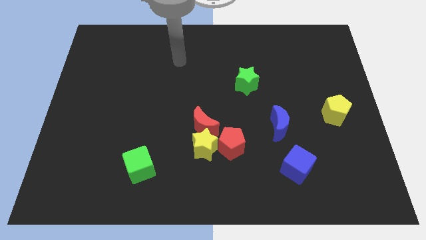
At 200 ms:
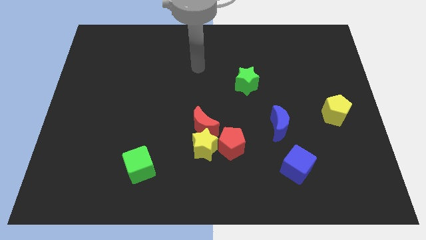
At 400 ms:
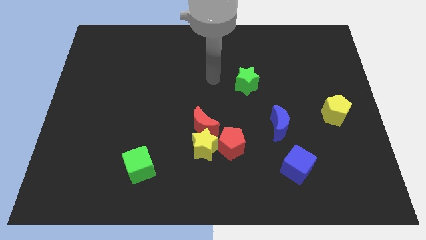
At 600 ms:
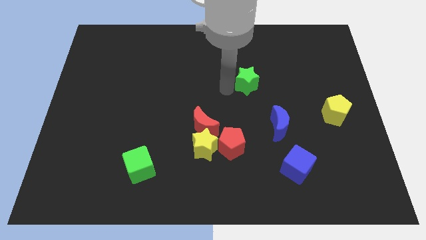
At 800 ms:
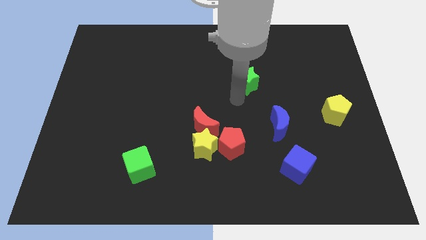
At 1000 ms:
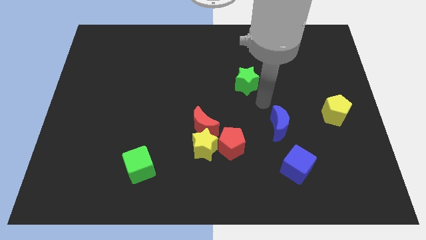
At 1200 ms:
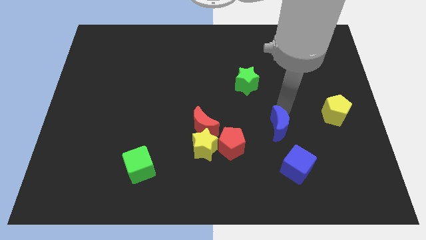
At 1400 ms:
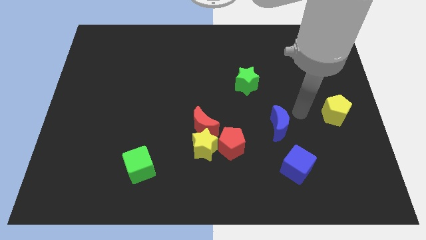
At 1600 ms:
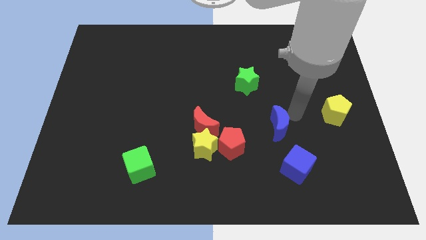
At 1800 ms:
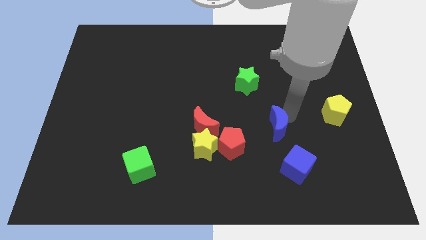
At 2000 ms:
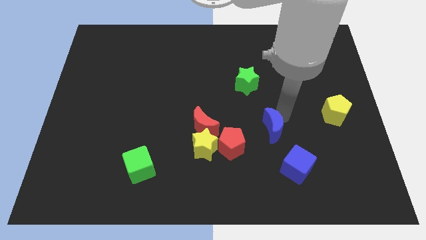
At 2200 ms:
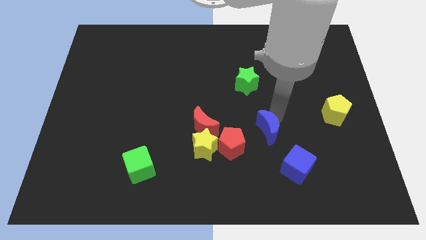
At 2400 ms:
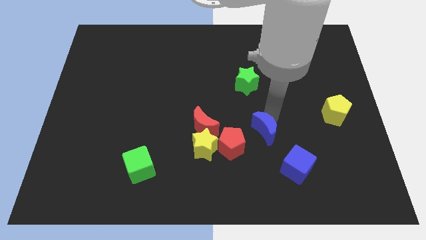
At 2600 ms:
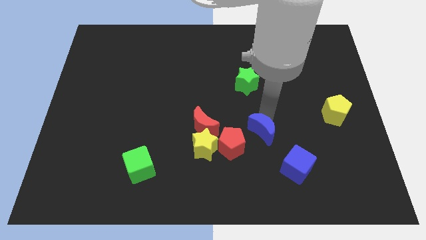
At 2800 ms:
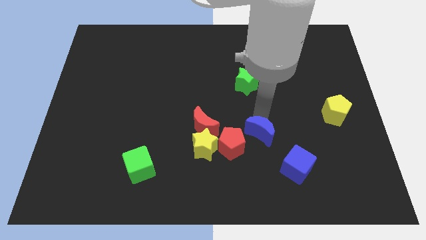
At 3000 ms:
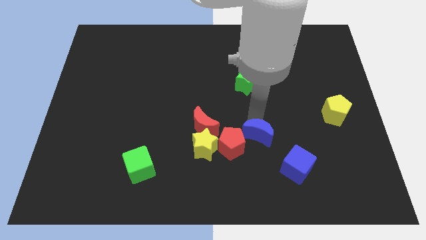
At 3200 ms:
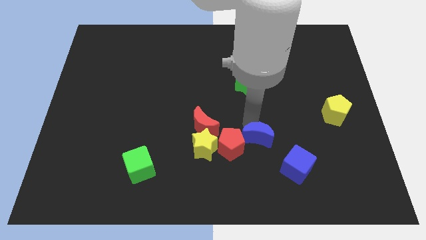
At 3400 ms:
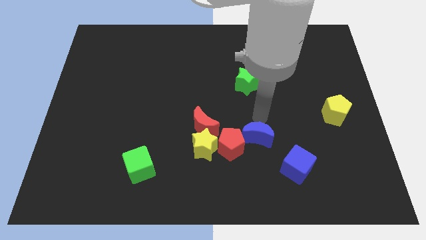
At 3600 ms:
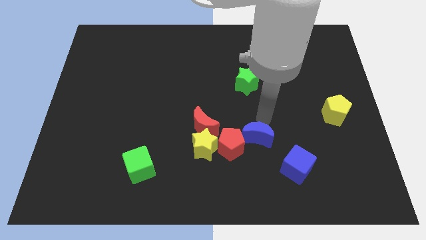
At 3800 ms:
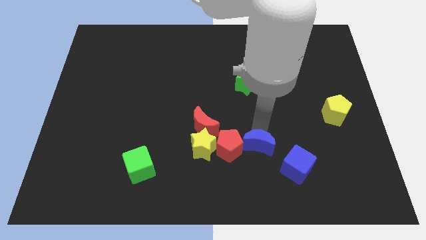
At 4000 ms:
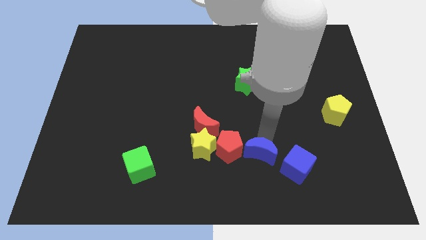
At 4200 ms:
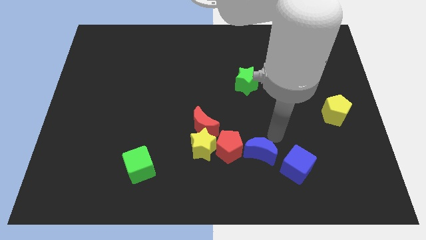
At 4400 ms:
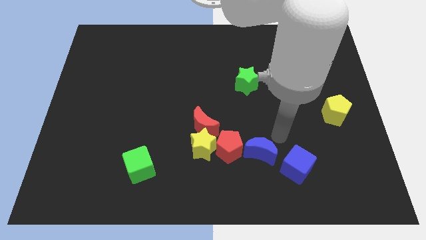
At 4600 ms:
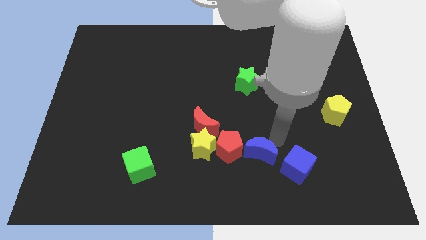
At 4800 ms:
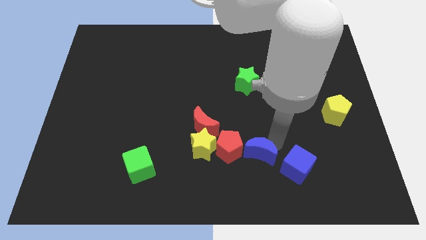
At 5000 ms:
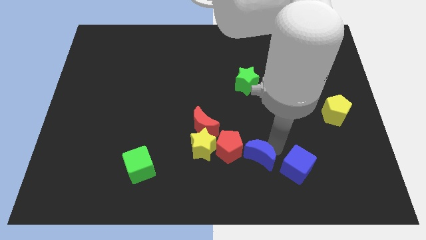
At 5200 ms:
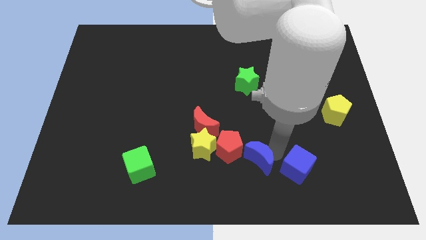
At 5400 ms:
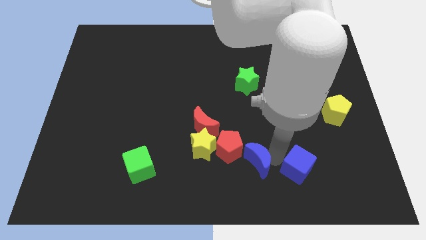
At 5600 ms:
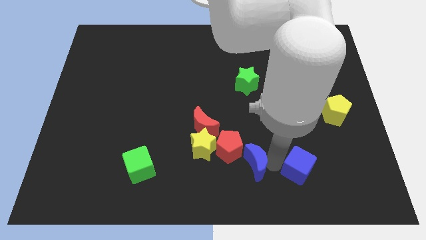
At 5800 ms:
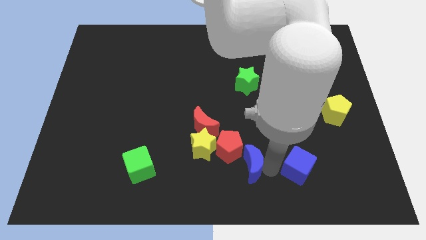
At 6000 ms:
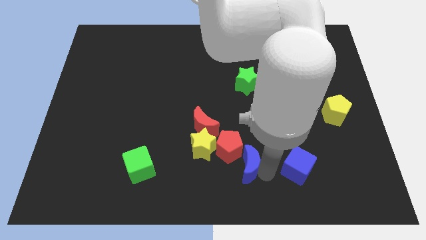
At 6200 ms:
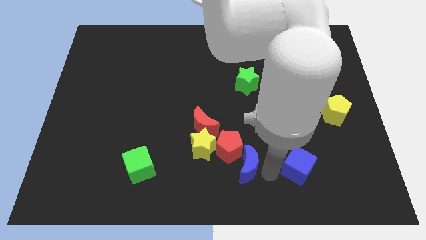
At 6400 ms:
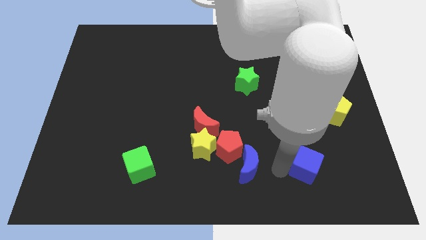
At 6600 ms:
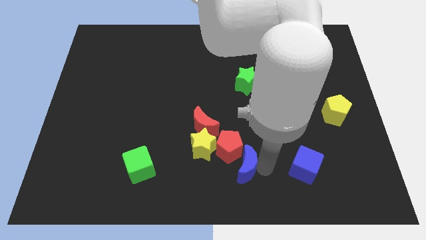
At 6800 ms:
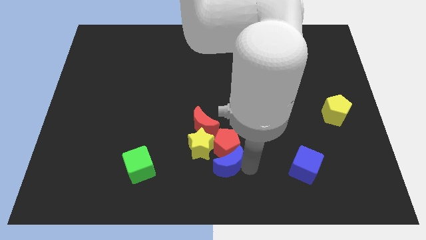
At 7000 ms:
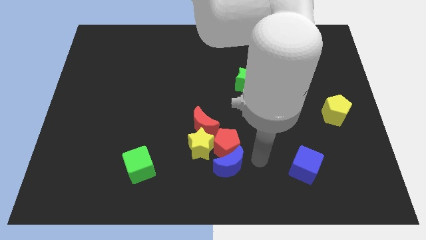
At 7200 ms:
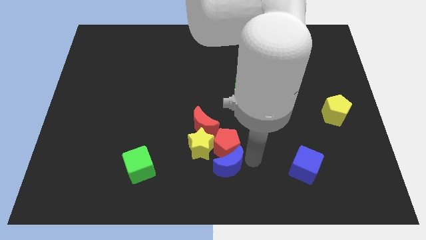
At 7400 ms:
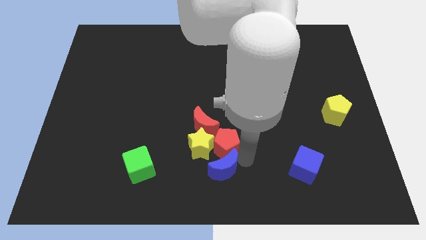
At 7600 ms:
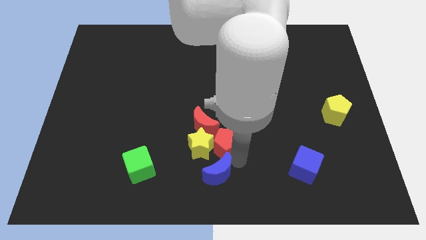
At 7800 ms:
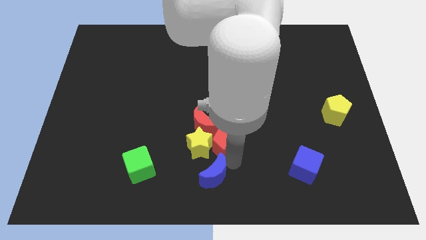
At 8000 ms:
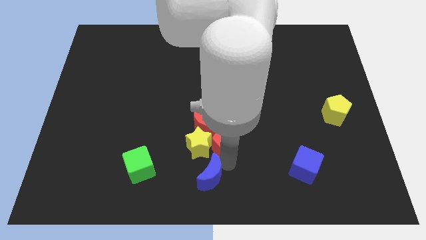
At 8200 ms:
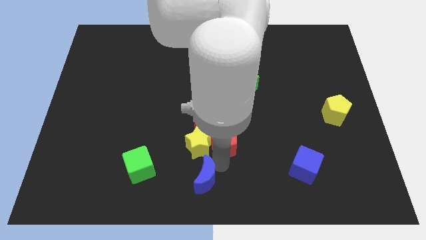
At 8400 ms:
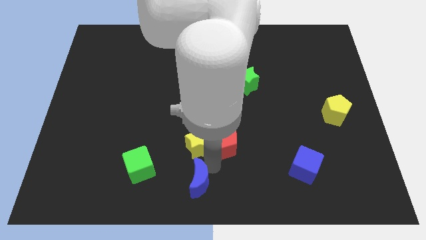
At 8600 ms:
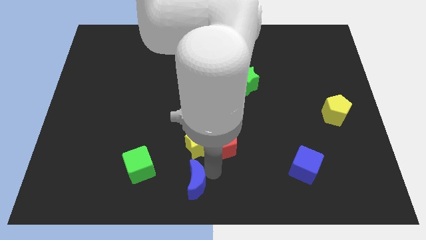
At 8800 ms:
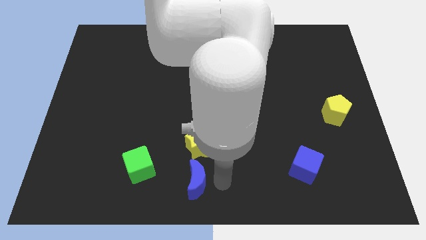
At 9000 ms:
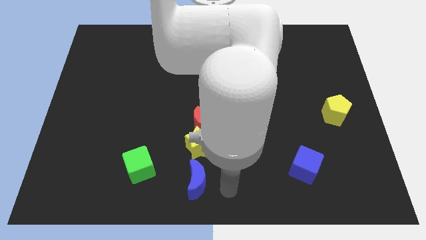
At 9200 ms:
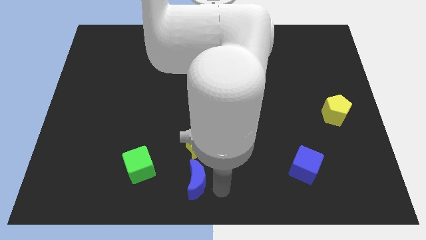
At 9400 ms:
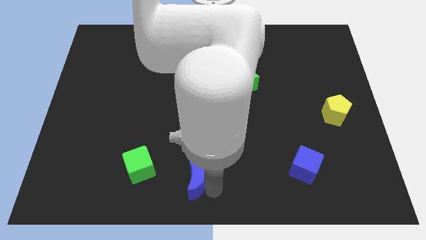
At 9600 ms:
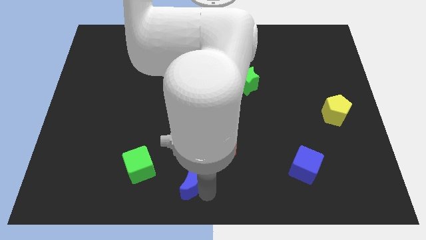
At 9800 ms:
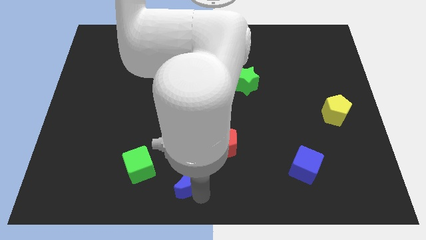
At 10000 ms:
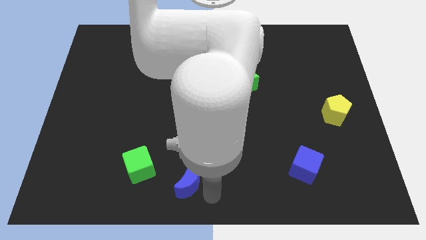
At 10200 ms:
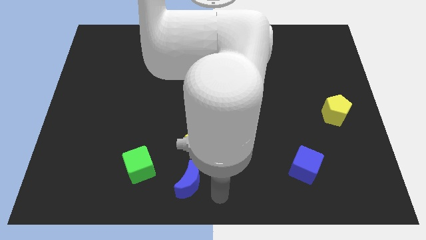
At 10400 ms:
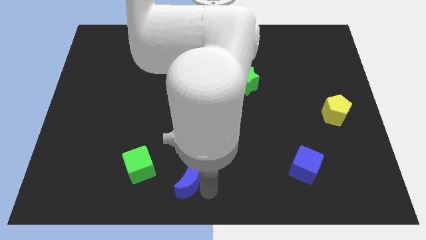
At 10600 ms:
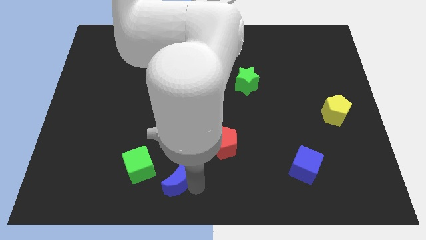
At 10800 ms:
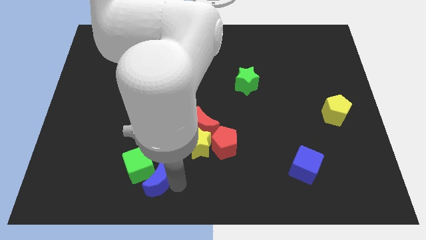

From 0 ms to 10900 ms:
move the blue moon next to the green cube

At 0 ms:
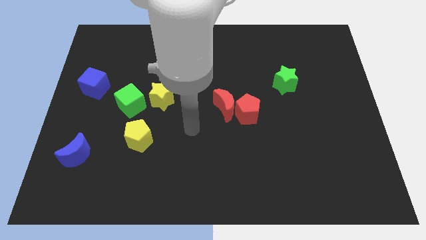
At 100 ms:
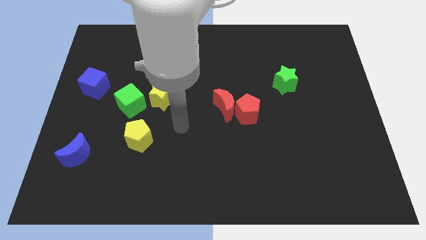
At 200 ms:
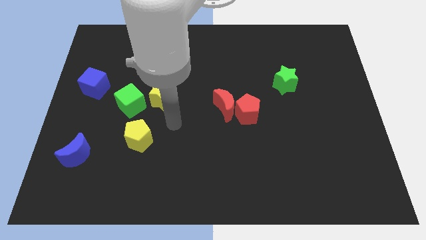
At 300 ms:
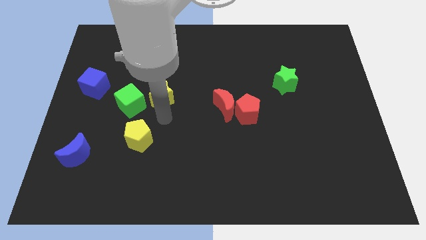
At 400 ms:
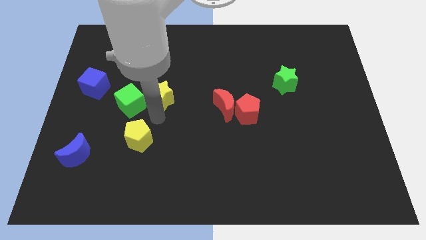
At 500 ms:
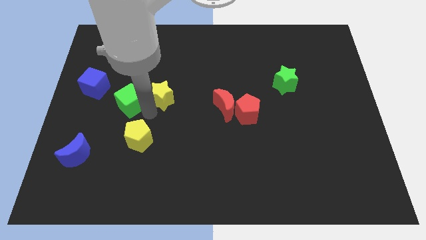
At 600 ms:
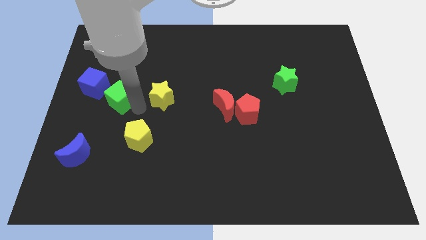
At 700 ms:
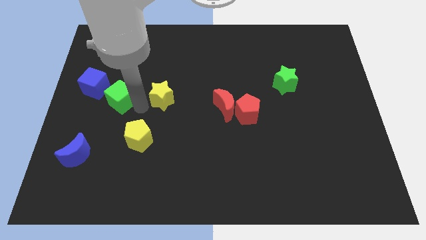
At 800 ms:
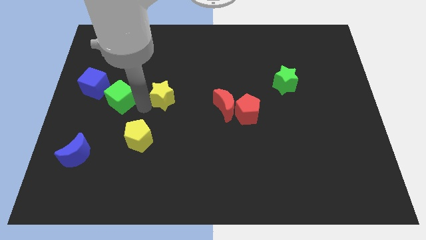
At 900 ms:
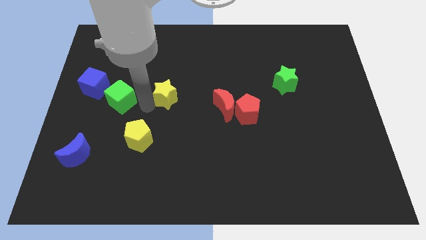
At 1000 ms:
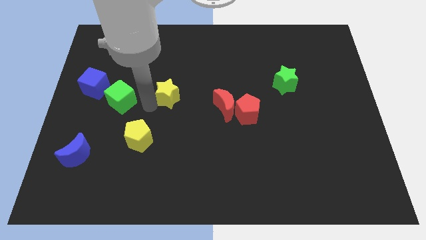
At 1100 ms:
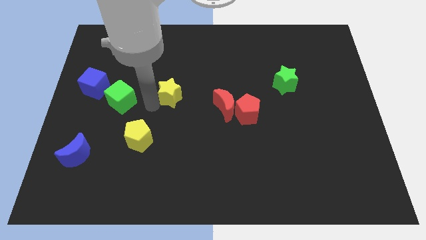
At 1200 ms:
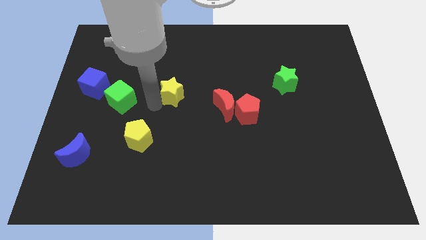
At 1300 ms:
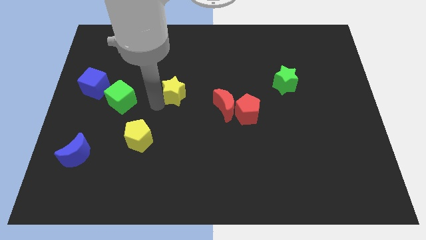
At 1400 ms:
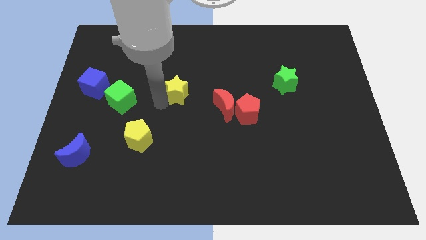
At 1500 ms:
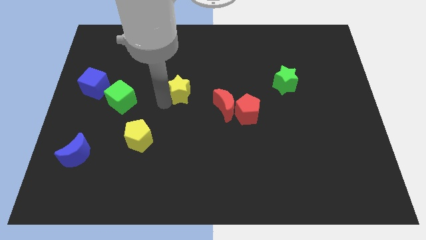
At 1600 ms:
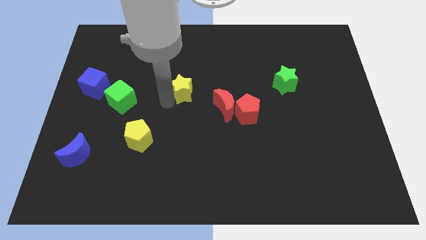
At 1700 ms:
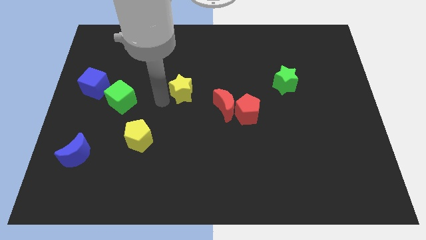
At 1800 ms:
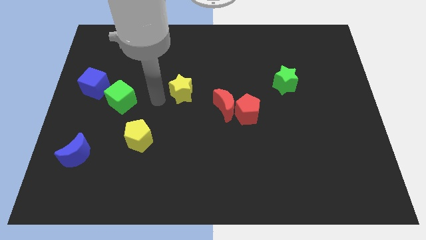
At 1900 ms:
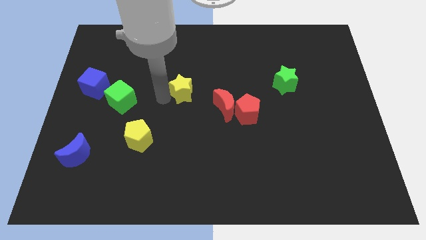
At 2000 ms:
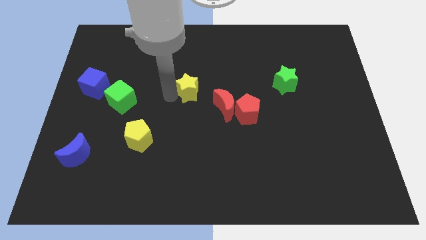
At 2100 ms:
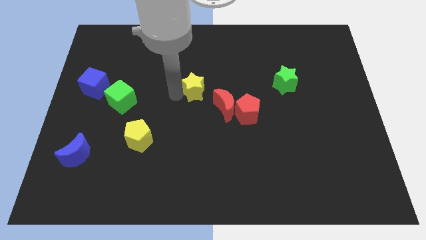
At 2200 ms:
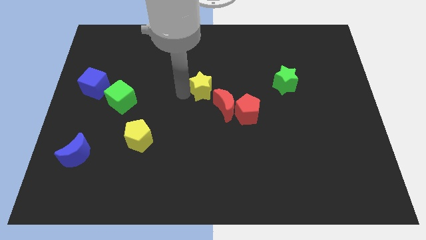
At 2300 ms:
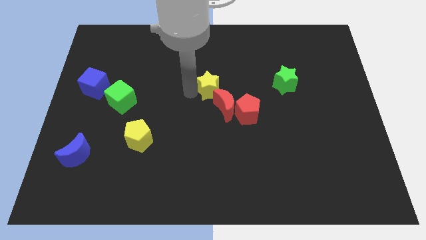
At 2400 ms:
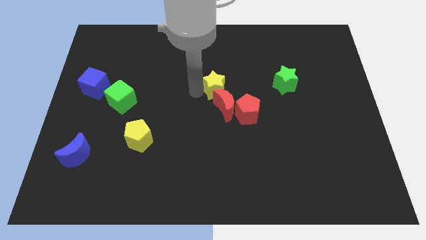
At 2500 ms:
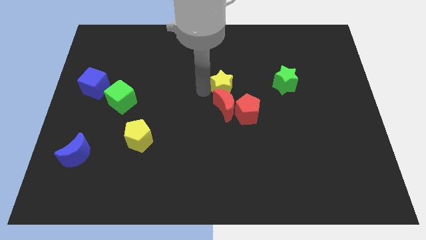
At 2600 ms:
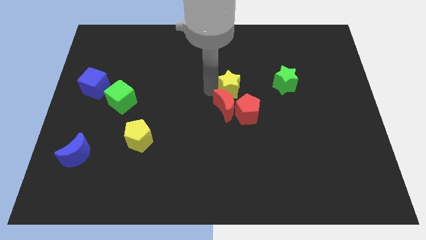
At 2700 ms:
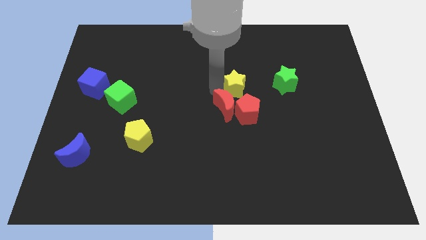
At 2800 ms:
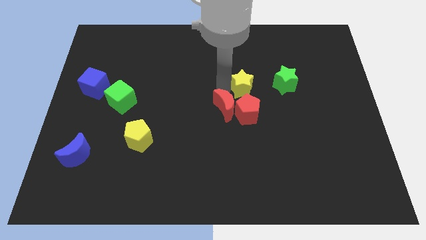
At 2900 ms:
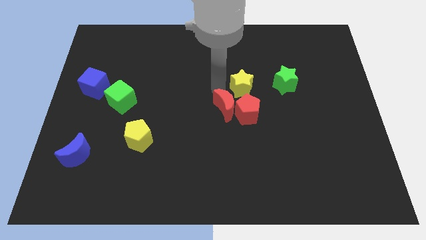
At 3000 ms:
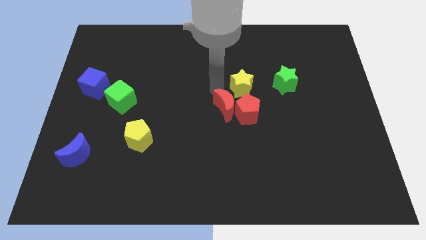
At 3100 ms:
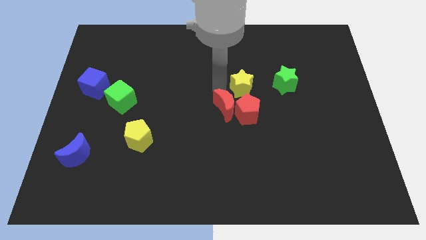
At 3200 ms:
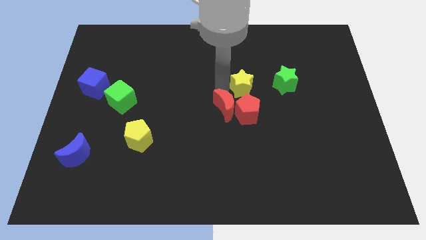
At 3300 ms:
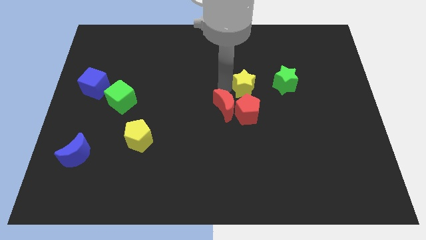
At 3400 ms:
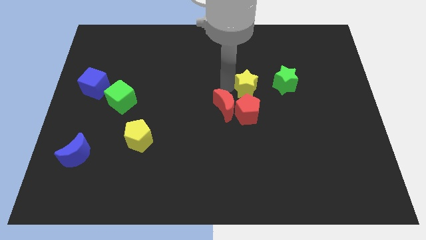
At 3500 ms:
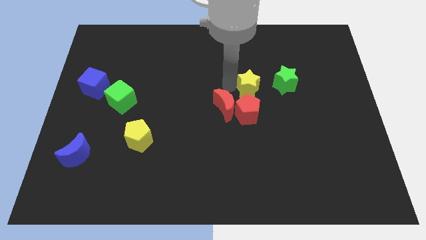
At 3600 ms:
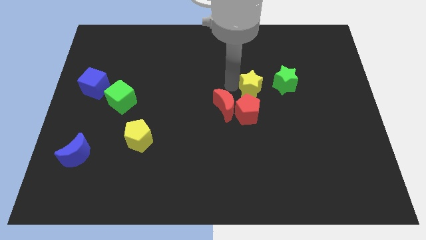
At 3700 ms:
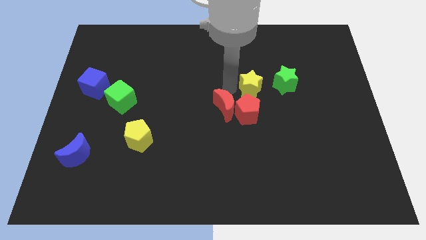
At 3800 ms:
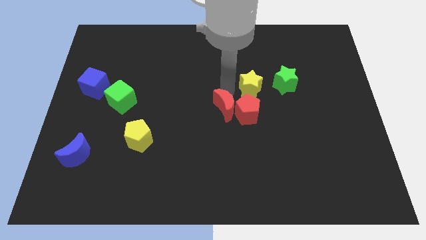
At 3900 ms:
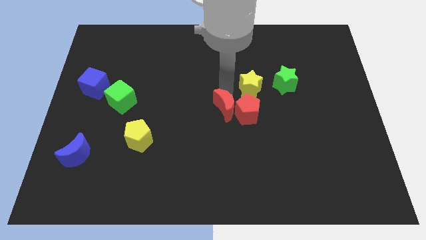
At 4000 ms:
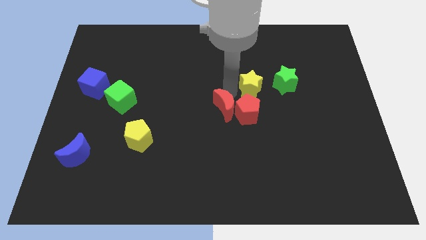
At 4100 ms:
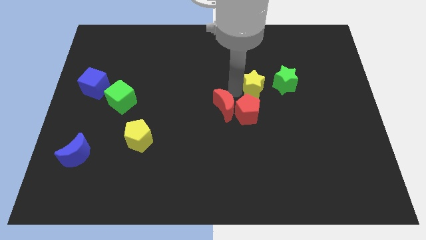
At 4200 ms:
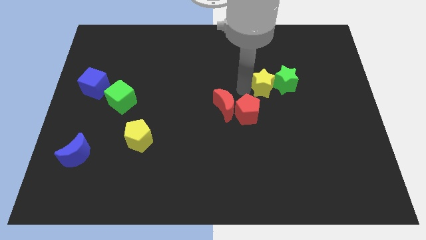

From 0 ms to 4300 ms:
push the yellow star to the green star
